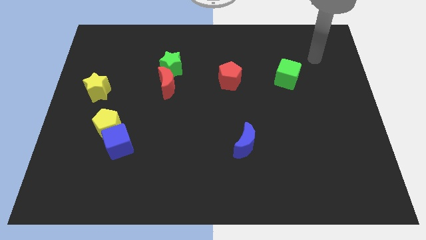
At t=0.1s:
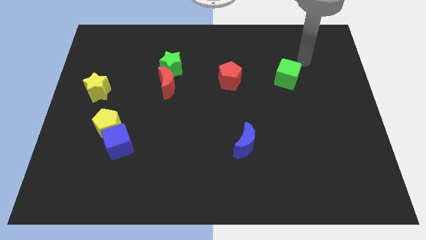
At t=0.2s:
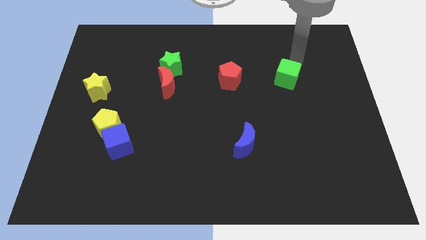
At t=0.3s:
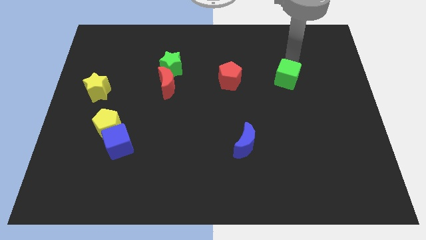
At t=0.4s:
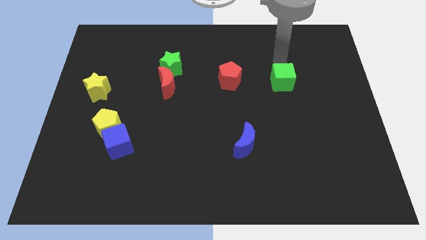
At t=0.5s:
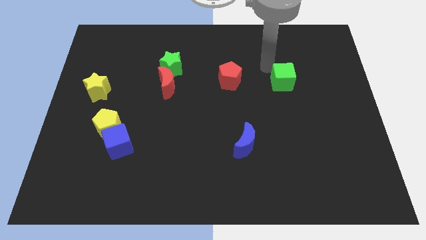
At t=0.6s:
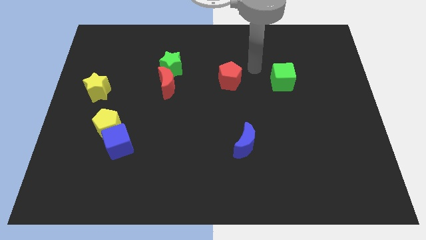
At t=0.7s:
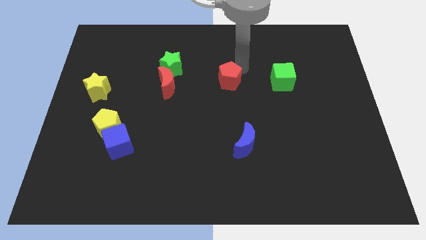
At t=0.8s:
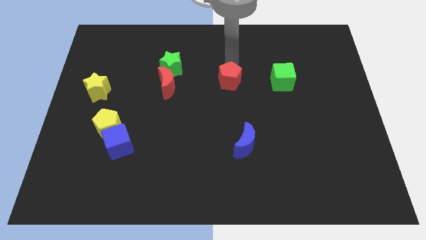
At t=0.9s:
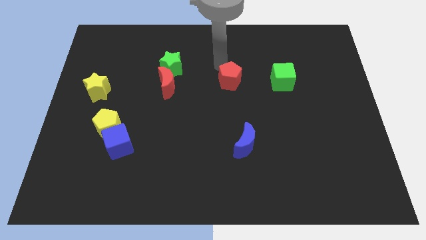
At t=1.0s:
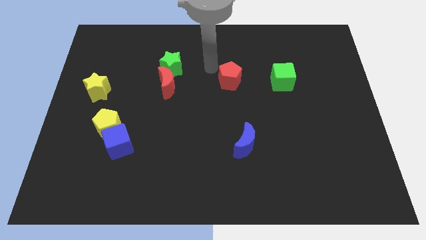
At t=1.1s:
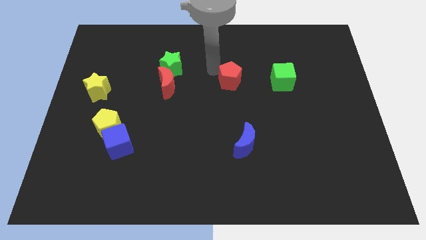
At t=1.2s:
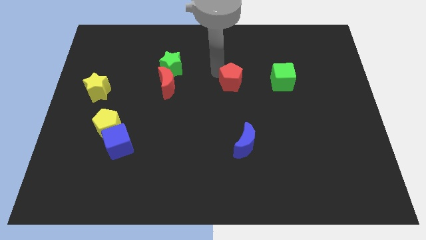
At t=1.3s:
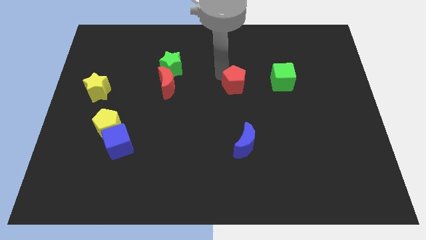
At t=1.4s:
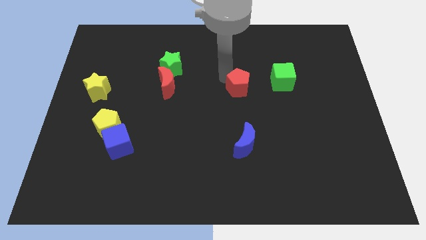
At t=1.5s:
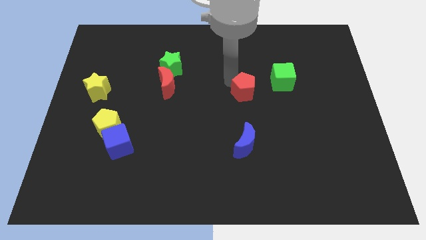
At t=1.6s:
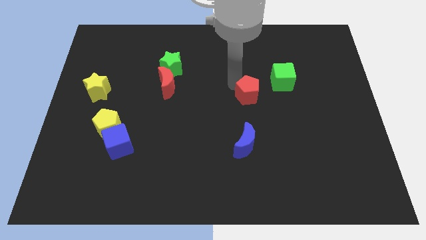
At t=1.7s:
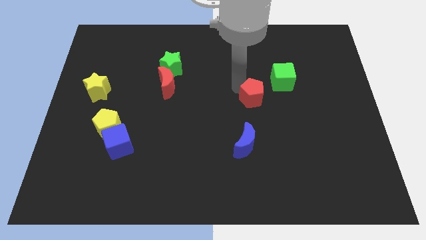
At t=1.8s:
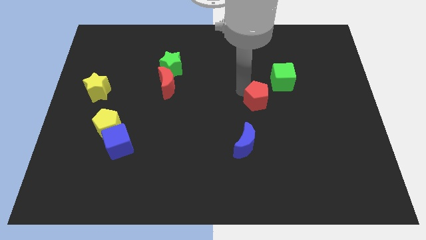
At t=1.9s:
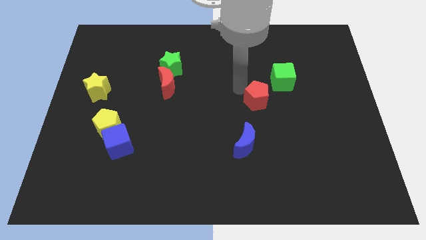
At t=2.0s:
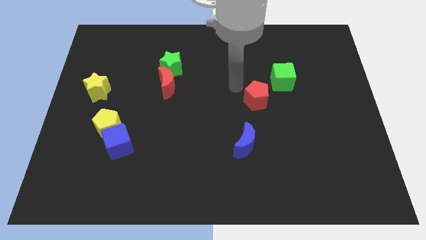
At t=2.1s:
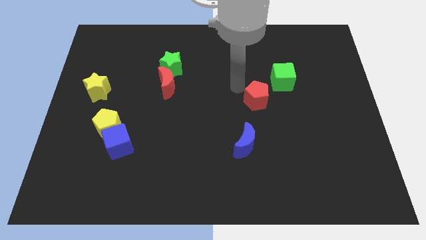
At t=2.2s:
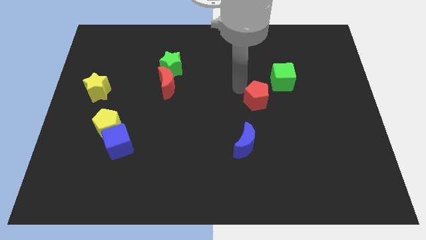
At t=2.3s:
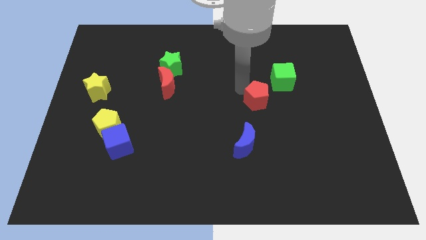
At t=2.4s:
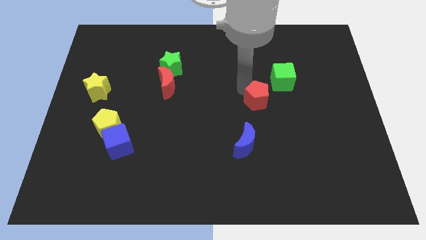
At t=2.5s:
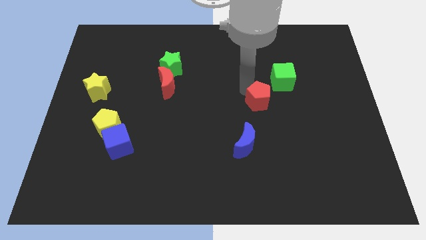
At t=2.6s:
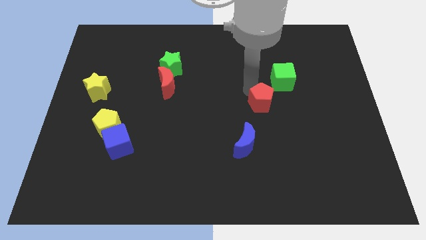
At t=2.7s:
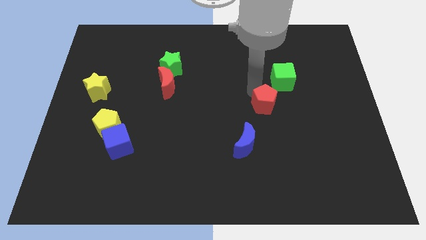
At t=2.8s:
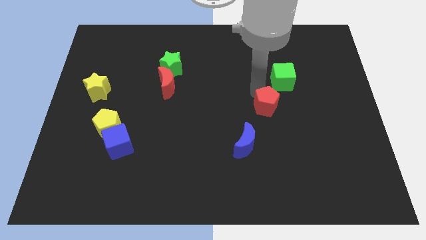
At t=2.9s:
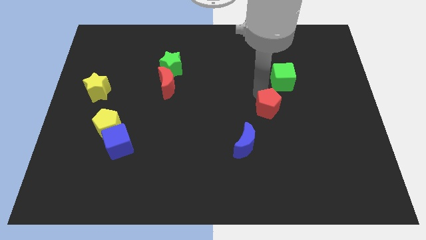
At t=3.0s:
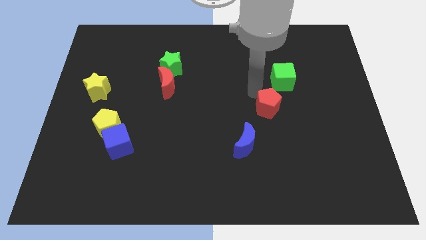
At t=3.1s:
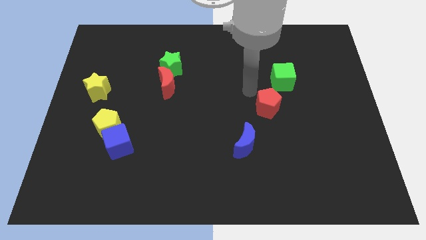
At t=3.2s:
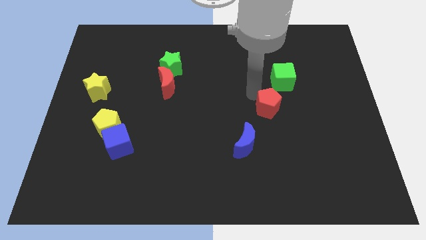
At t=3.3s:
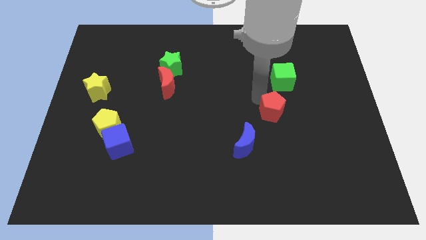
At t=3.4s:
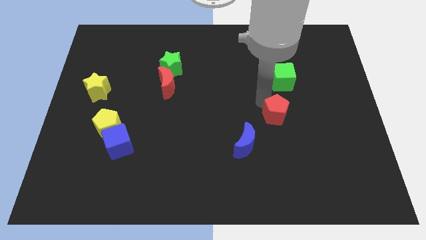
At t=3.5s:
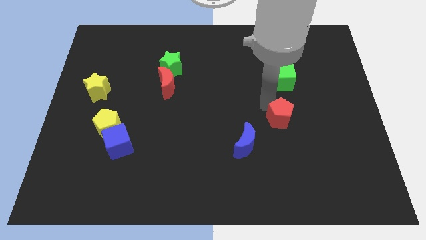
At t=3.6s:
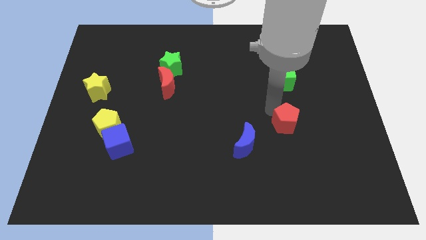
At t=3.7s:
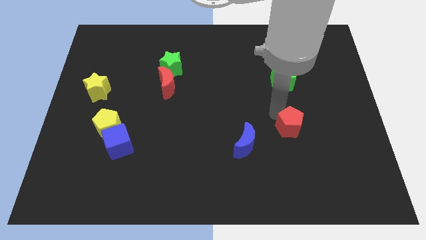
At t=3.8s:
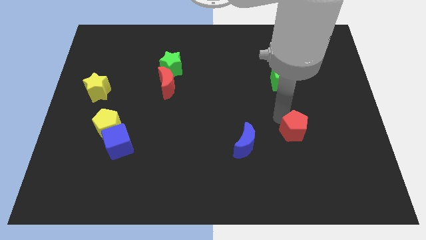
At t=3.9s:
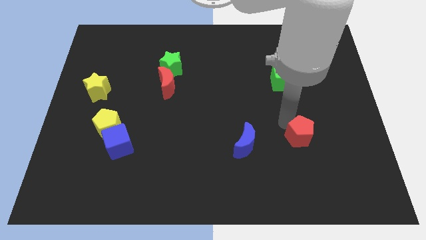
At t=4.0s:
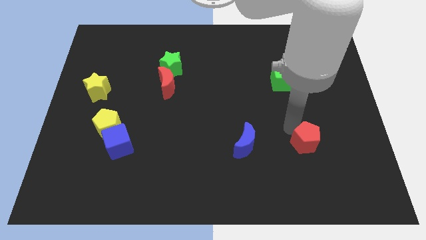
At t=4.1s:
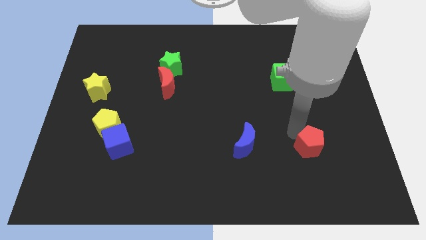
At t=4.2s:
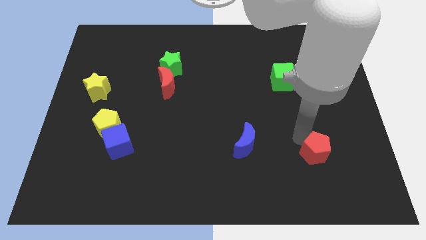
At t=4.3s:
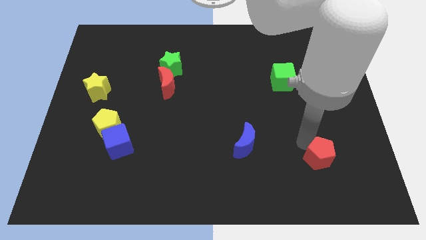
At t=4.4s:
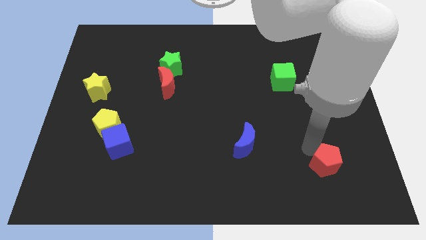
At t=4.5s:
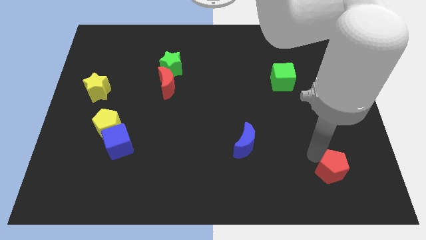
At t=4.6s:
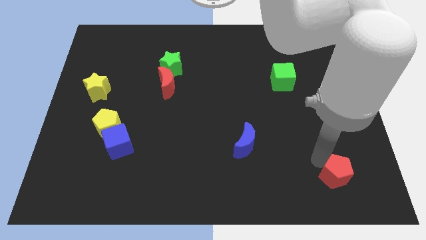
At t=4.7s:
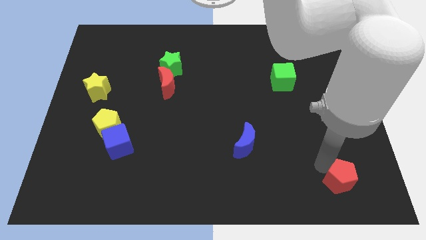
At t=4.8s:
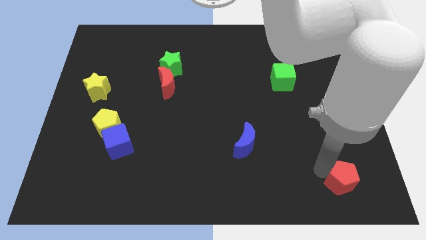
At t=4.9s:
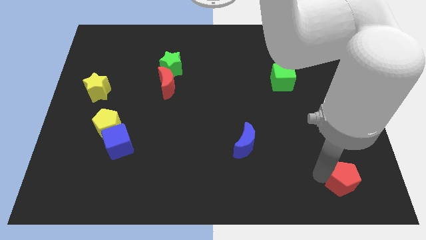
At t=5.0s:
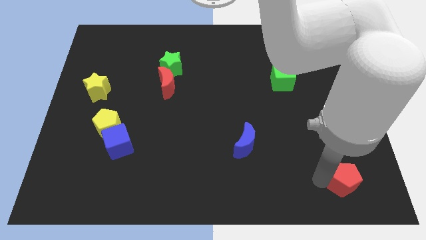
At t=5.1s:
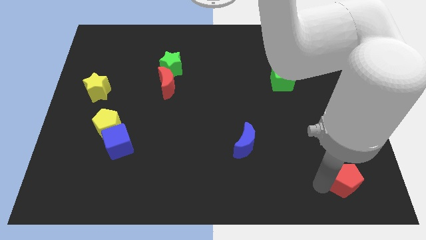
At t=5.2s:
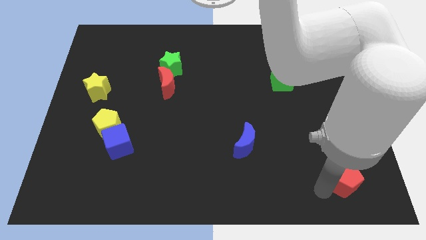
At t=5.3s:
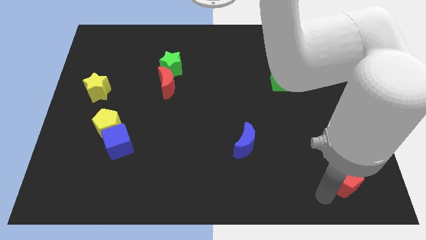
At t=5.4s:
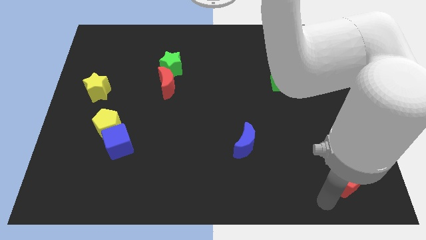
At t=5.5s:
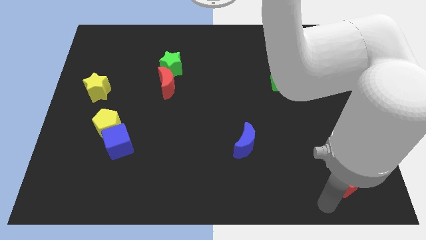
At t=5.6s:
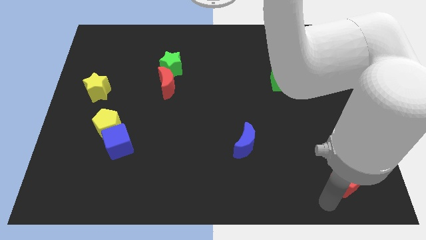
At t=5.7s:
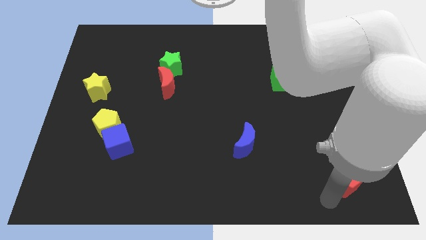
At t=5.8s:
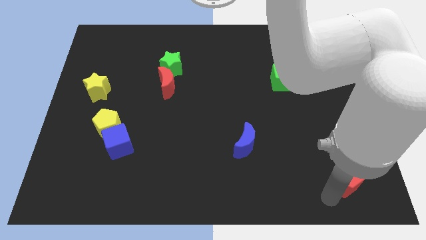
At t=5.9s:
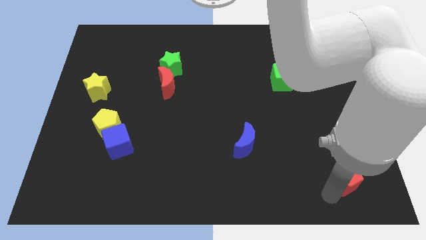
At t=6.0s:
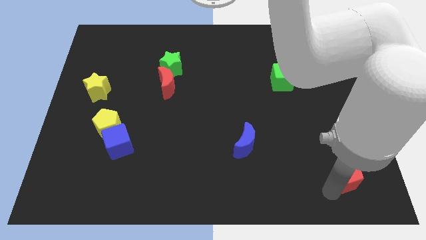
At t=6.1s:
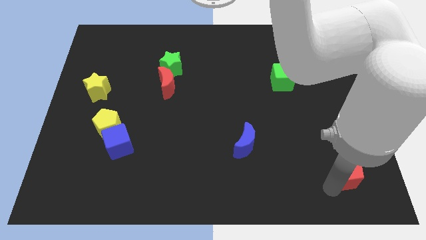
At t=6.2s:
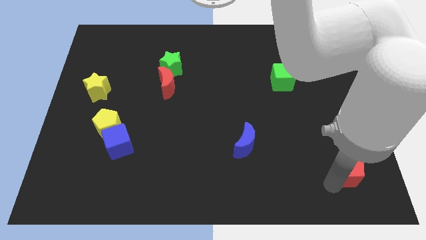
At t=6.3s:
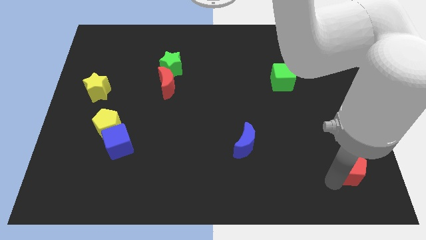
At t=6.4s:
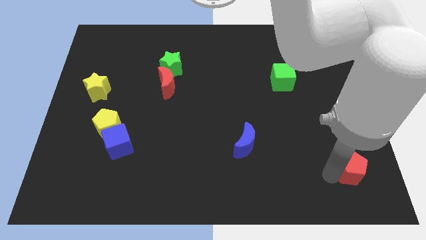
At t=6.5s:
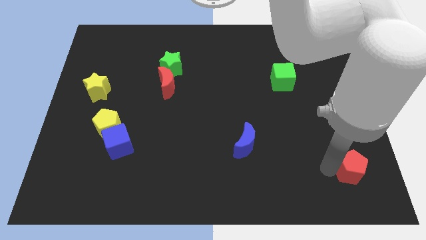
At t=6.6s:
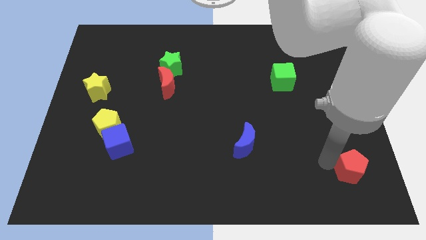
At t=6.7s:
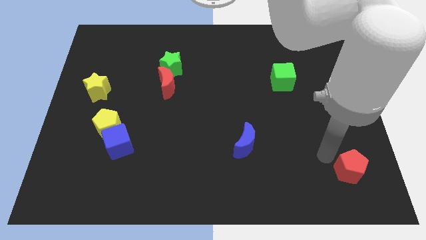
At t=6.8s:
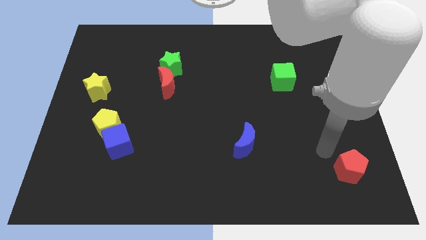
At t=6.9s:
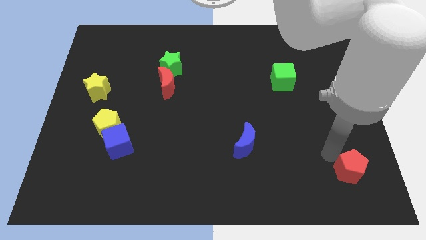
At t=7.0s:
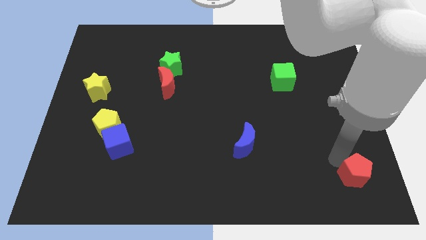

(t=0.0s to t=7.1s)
move the red pentagon to the bottom right corner
